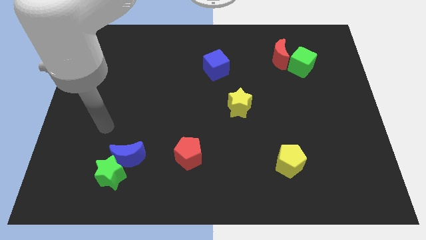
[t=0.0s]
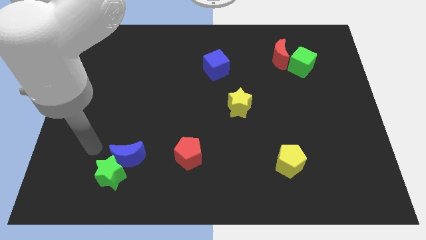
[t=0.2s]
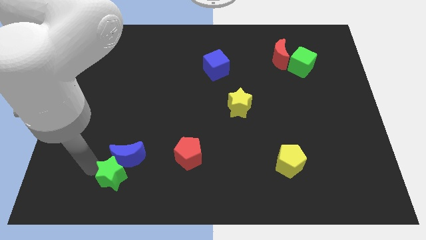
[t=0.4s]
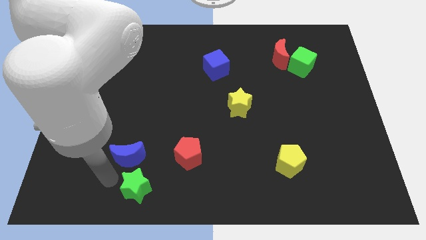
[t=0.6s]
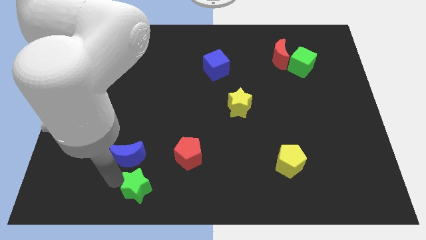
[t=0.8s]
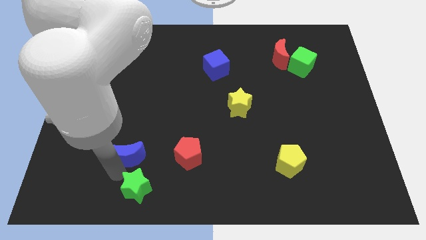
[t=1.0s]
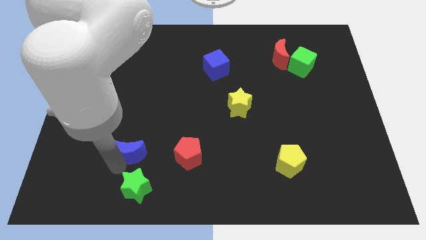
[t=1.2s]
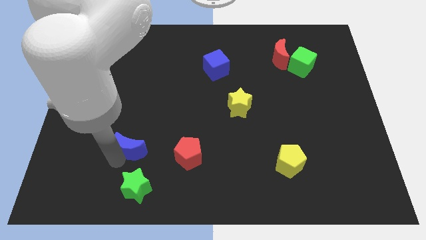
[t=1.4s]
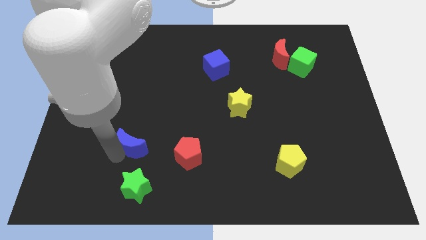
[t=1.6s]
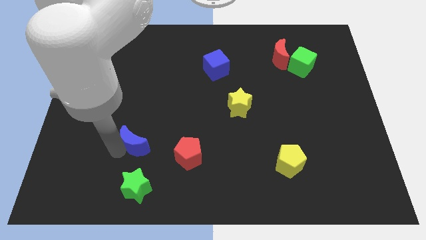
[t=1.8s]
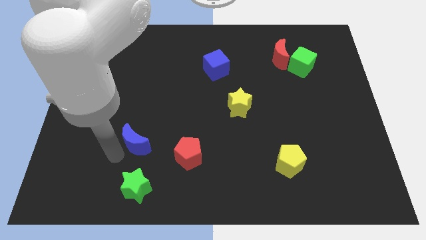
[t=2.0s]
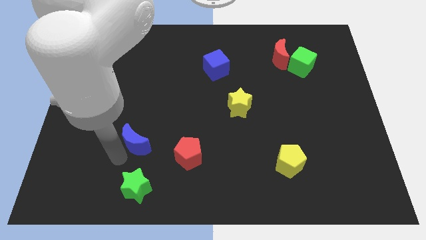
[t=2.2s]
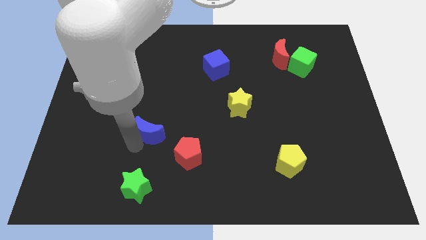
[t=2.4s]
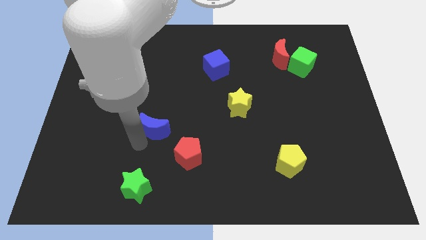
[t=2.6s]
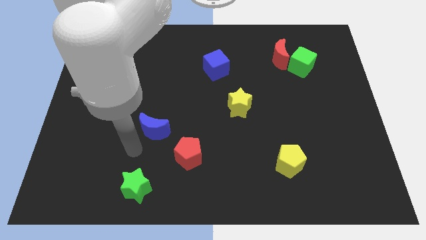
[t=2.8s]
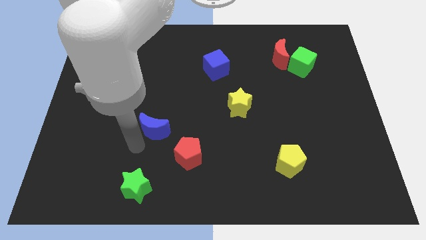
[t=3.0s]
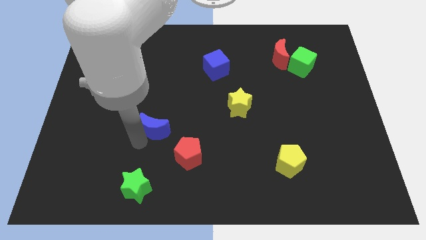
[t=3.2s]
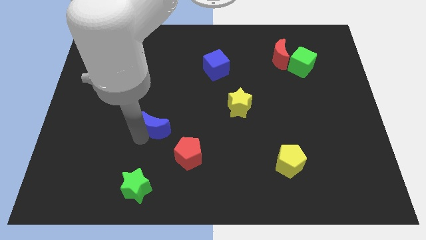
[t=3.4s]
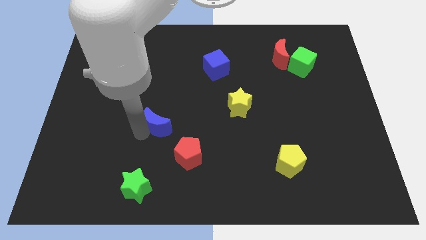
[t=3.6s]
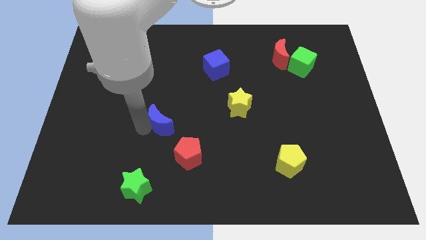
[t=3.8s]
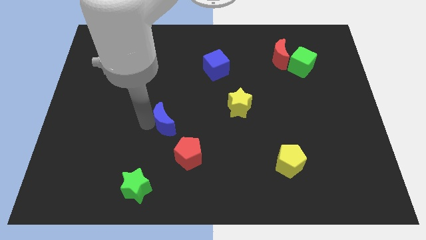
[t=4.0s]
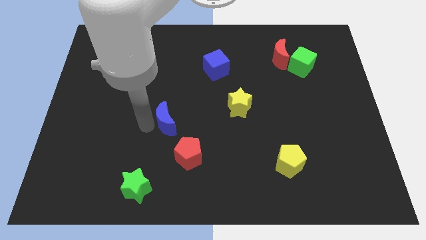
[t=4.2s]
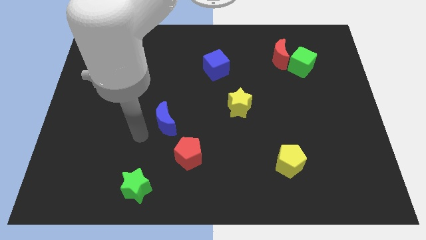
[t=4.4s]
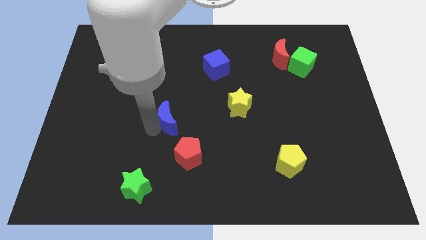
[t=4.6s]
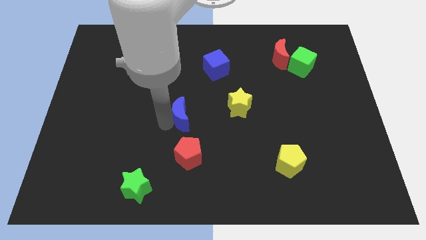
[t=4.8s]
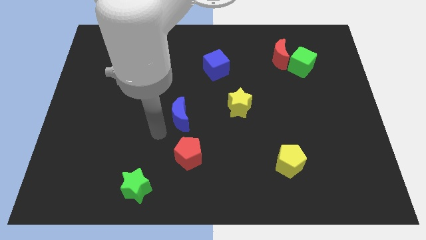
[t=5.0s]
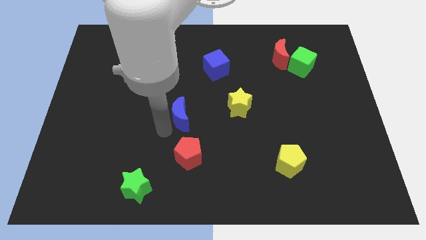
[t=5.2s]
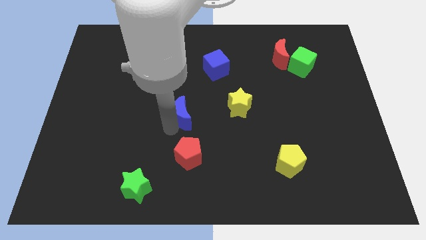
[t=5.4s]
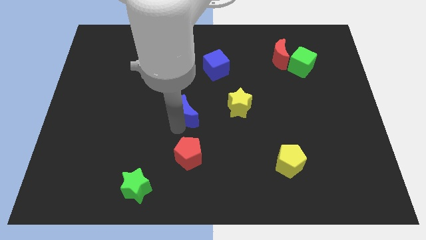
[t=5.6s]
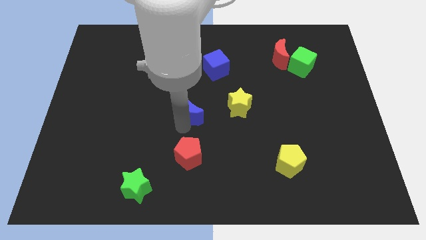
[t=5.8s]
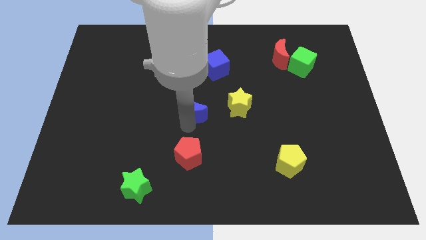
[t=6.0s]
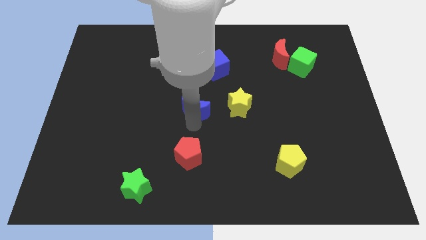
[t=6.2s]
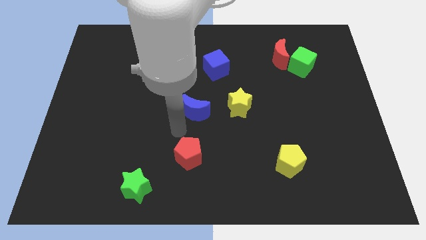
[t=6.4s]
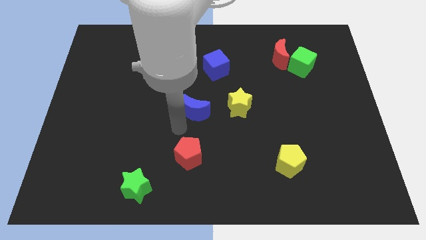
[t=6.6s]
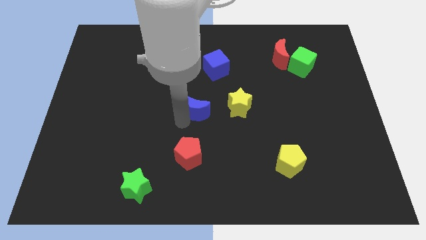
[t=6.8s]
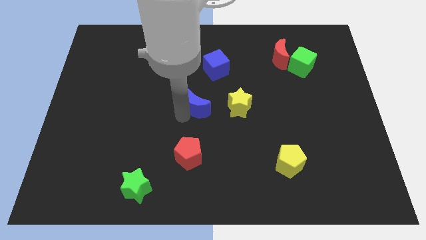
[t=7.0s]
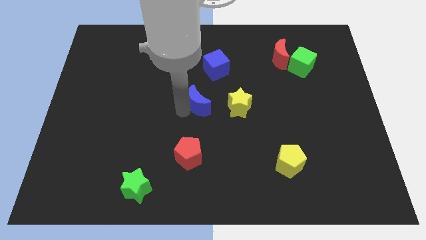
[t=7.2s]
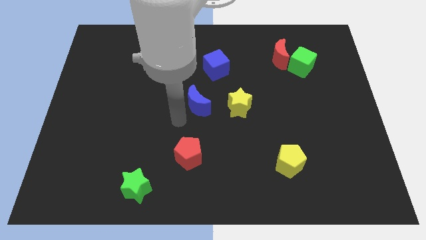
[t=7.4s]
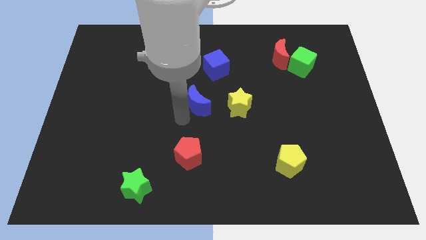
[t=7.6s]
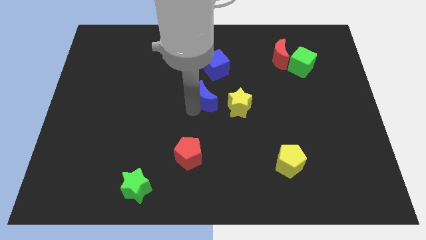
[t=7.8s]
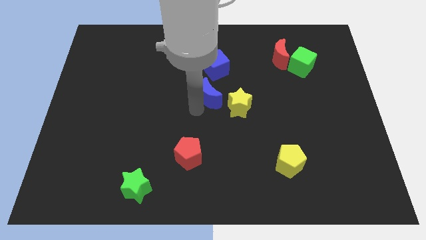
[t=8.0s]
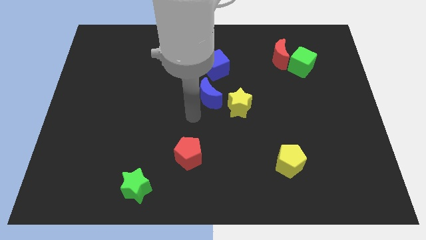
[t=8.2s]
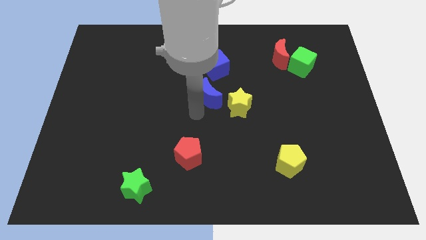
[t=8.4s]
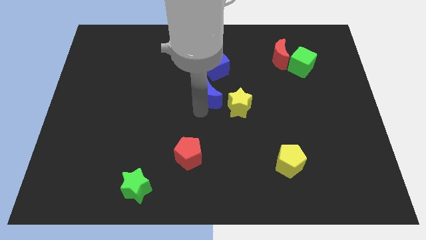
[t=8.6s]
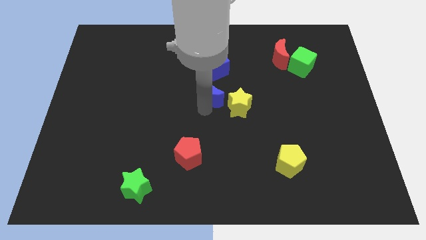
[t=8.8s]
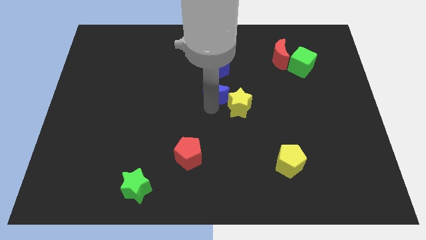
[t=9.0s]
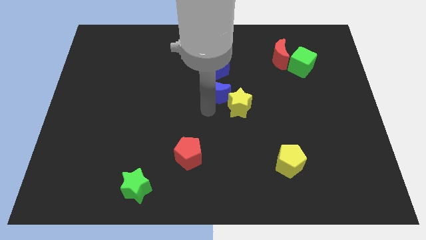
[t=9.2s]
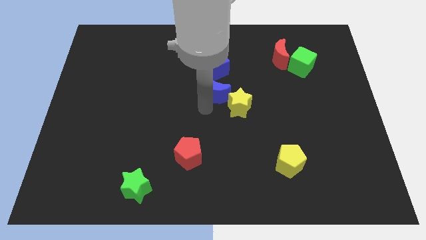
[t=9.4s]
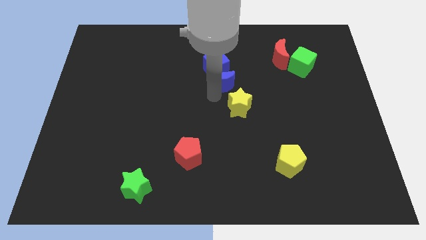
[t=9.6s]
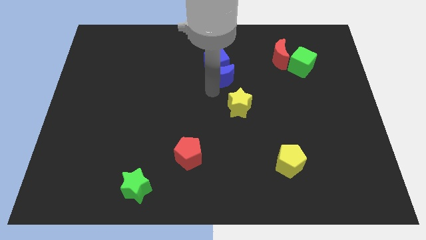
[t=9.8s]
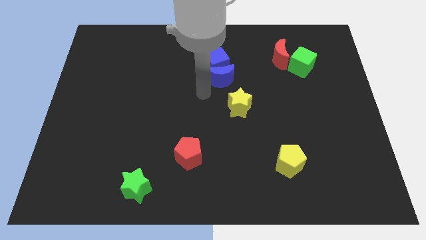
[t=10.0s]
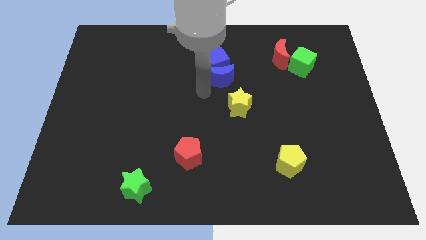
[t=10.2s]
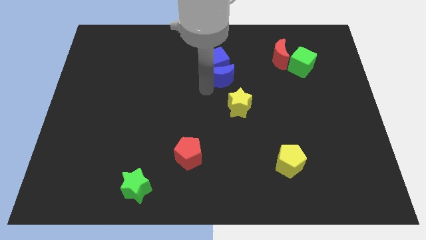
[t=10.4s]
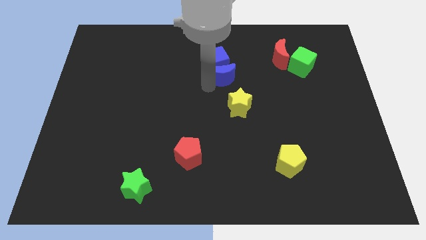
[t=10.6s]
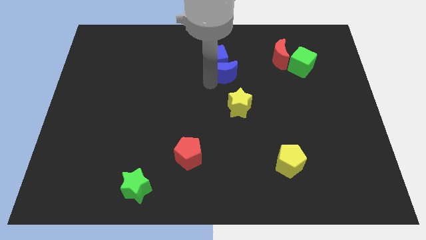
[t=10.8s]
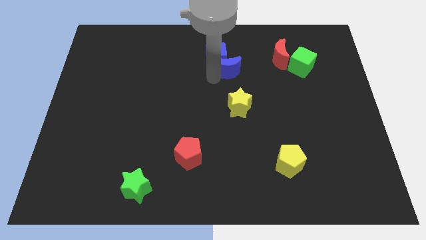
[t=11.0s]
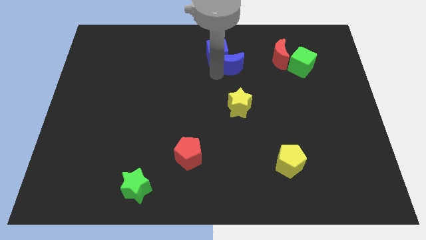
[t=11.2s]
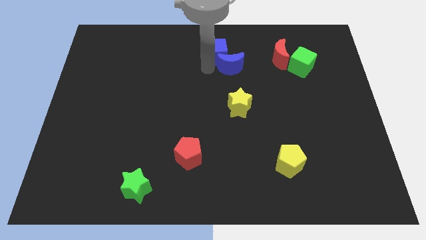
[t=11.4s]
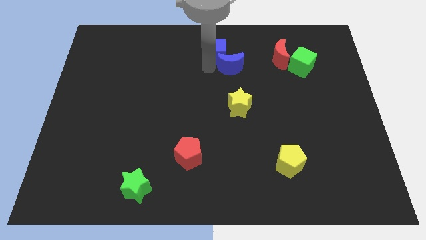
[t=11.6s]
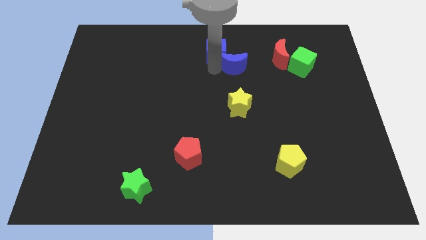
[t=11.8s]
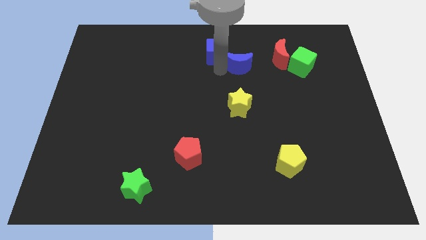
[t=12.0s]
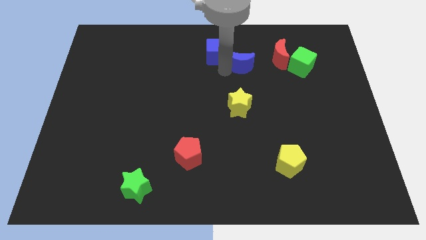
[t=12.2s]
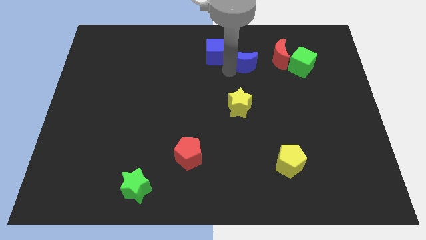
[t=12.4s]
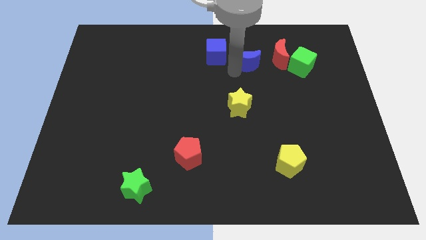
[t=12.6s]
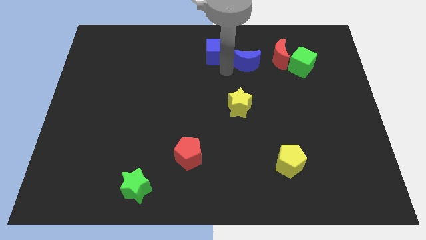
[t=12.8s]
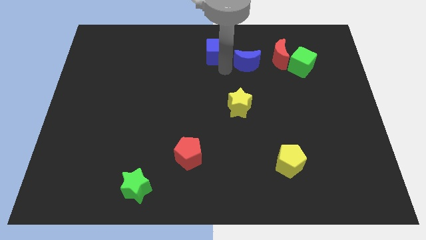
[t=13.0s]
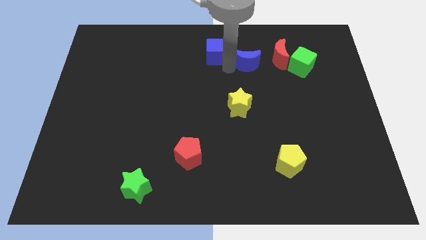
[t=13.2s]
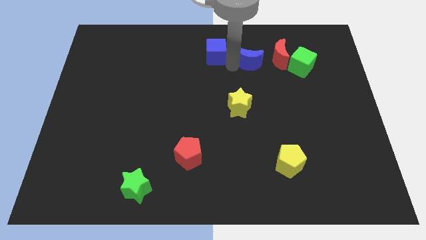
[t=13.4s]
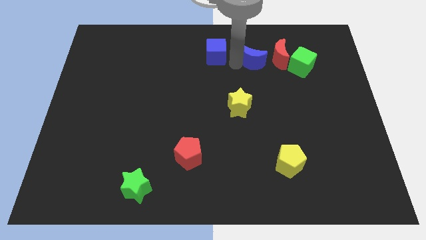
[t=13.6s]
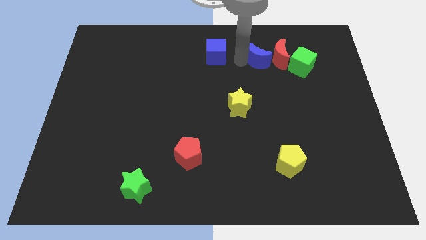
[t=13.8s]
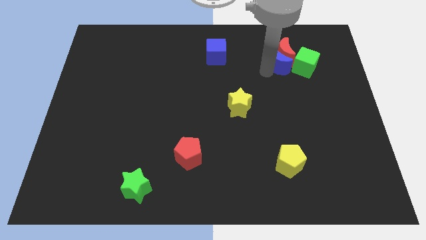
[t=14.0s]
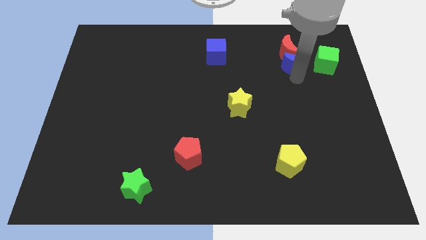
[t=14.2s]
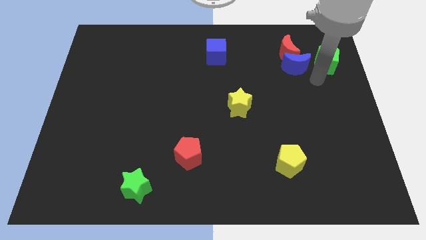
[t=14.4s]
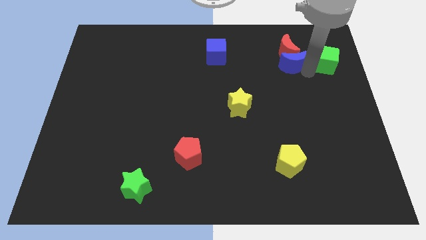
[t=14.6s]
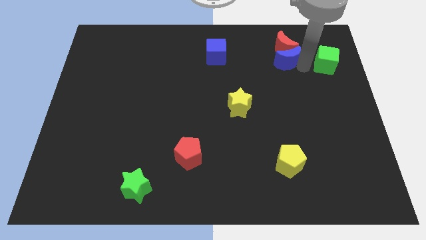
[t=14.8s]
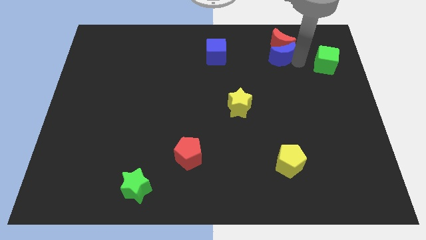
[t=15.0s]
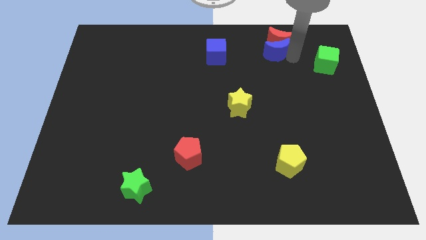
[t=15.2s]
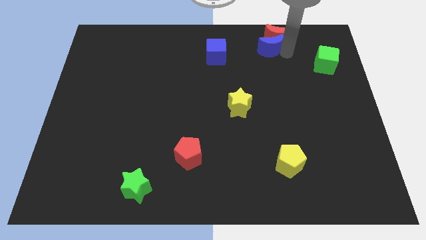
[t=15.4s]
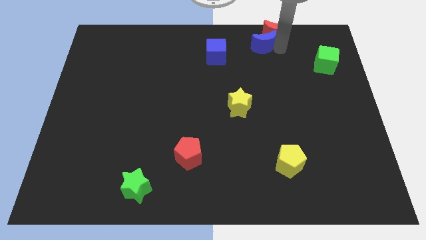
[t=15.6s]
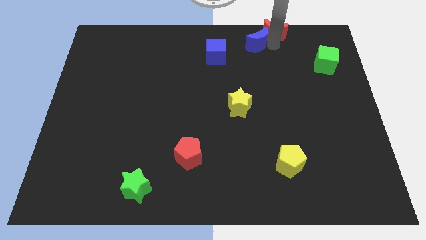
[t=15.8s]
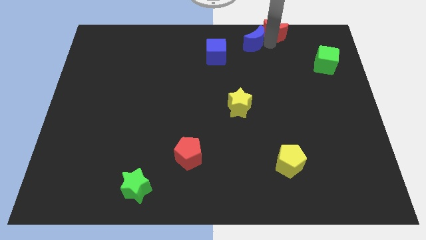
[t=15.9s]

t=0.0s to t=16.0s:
move the blue moon to the top
